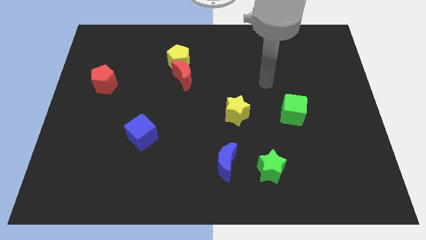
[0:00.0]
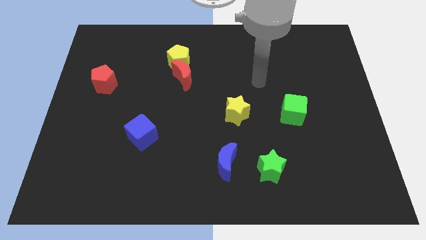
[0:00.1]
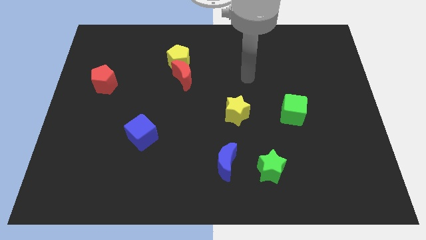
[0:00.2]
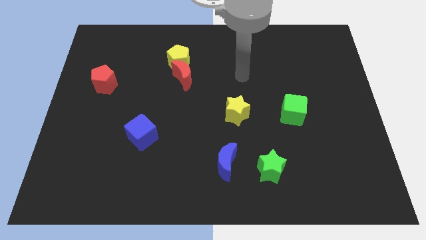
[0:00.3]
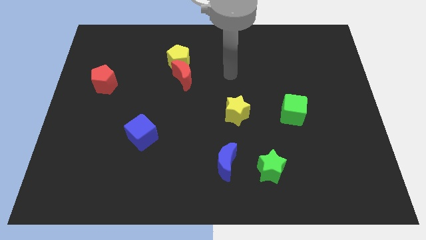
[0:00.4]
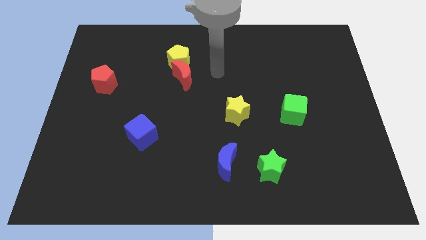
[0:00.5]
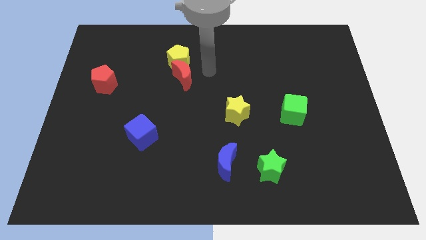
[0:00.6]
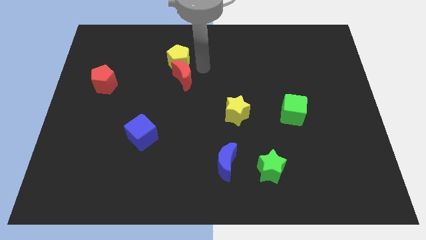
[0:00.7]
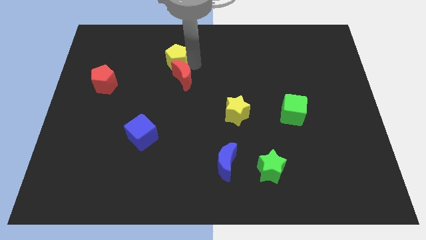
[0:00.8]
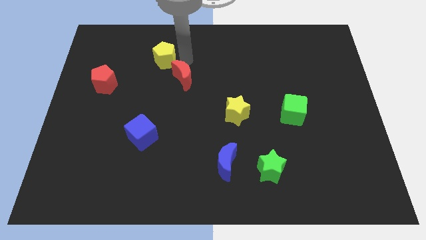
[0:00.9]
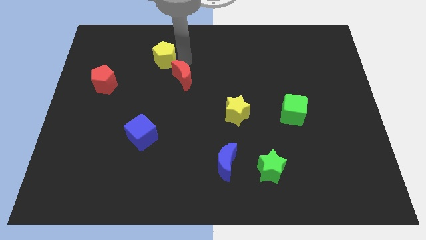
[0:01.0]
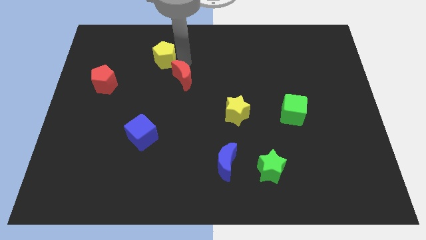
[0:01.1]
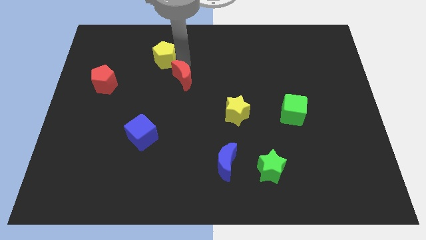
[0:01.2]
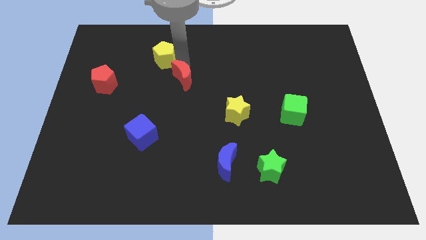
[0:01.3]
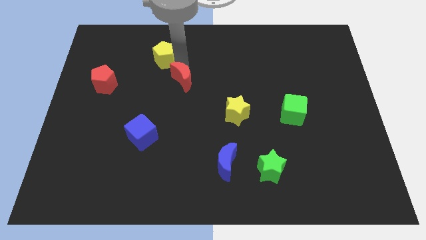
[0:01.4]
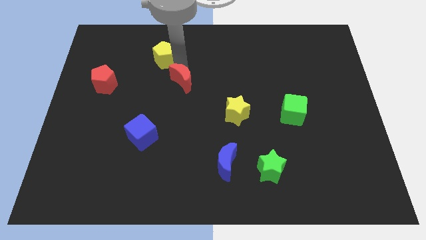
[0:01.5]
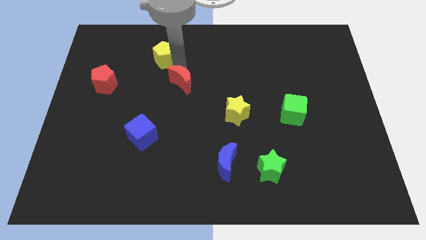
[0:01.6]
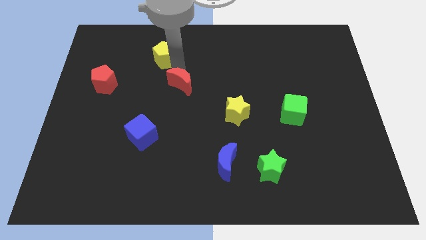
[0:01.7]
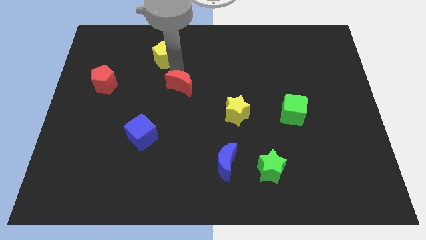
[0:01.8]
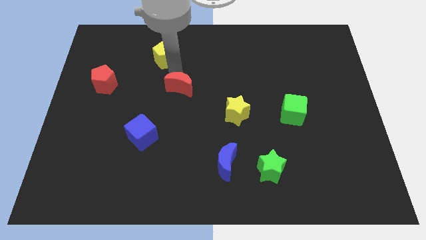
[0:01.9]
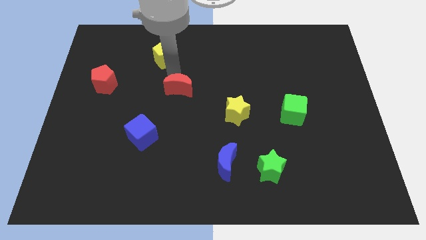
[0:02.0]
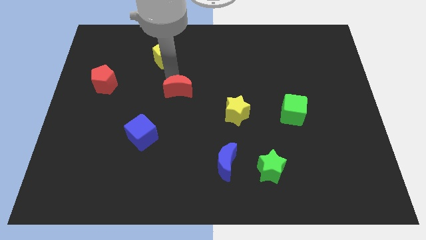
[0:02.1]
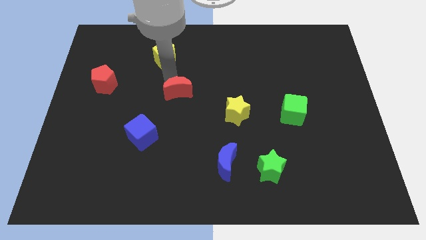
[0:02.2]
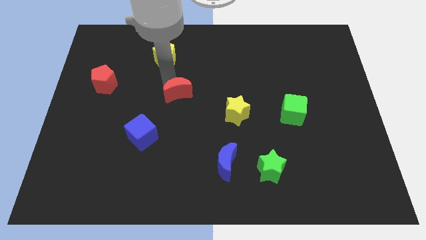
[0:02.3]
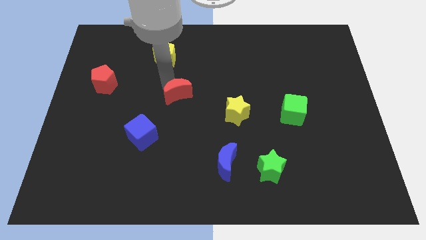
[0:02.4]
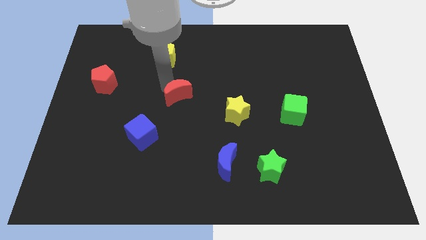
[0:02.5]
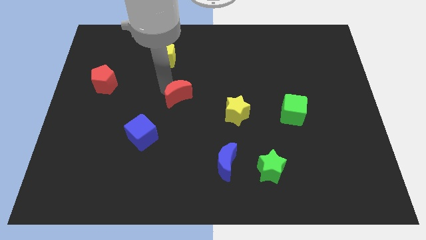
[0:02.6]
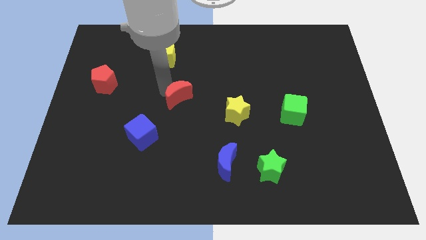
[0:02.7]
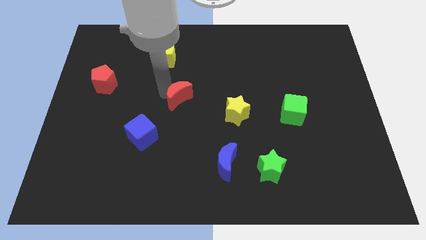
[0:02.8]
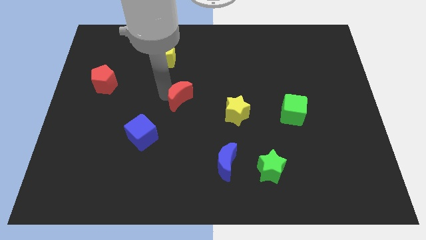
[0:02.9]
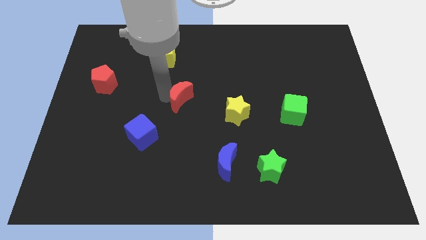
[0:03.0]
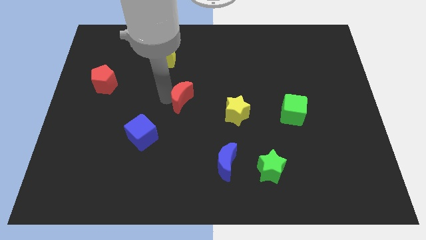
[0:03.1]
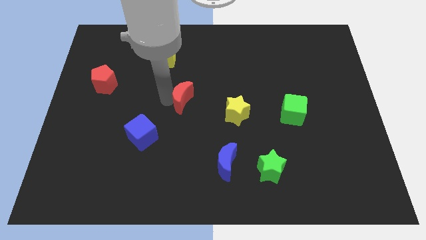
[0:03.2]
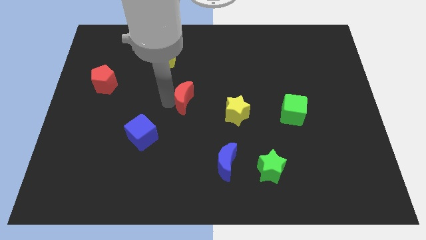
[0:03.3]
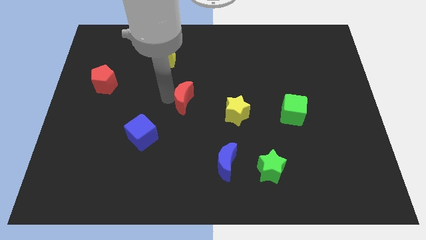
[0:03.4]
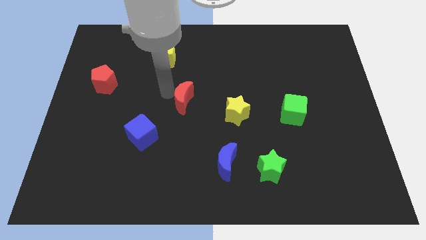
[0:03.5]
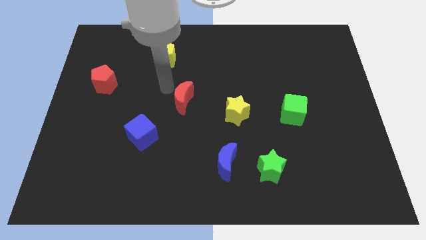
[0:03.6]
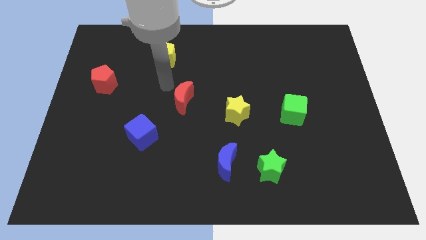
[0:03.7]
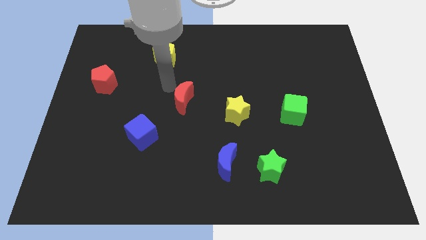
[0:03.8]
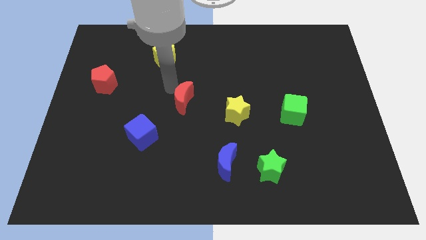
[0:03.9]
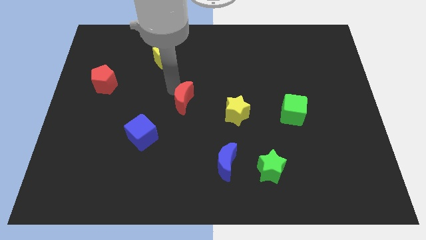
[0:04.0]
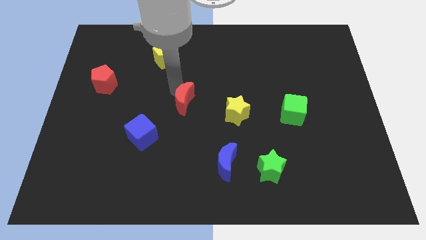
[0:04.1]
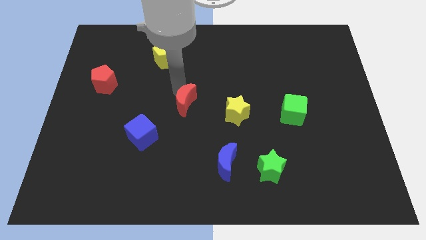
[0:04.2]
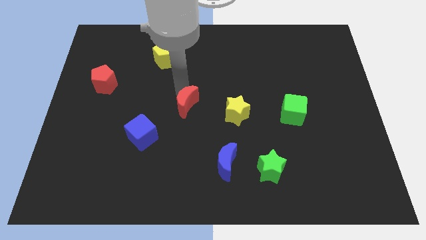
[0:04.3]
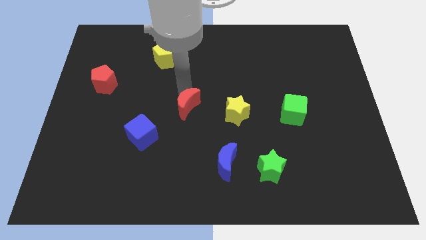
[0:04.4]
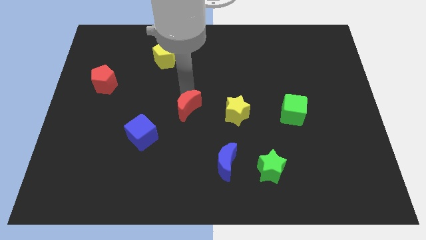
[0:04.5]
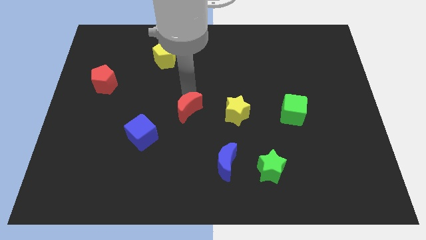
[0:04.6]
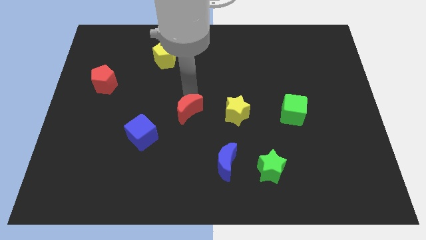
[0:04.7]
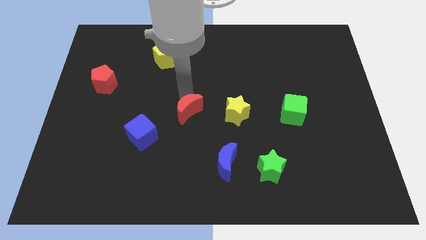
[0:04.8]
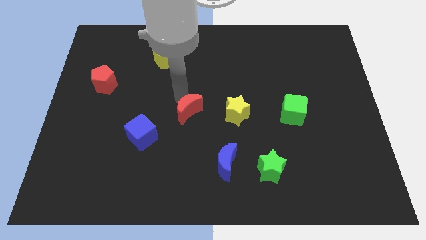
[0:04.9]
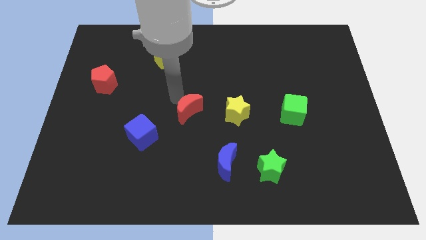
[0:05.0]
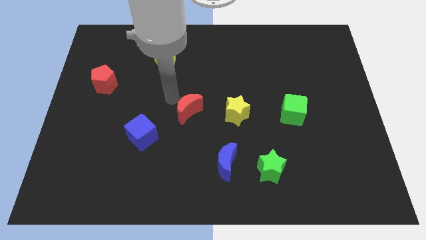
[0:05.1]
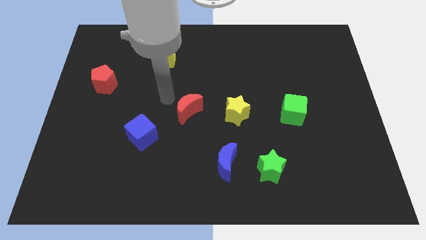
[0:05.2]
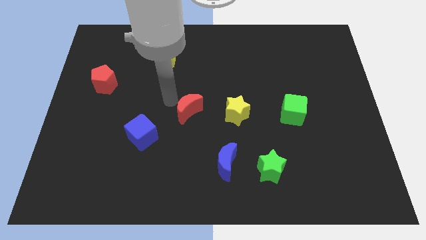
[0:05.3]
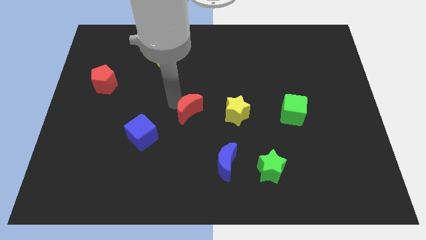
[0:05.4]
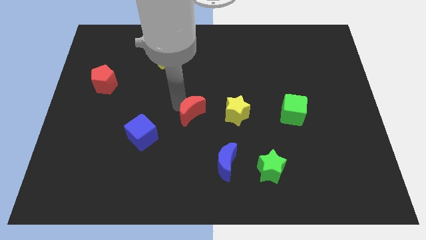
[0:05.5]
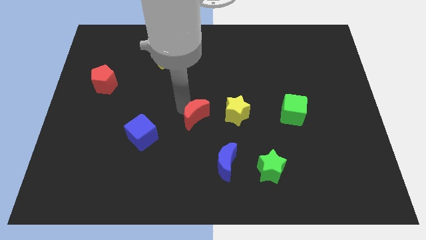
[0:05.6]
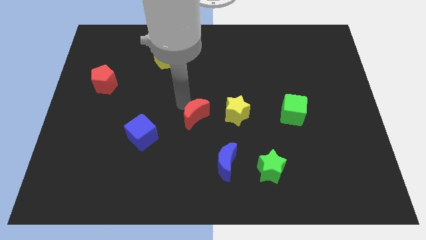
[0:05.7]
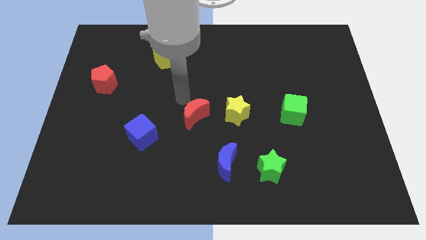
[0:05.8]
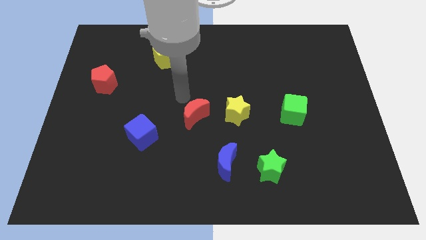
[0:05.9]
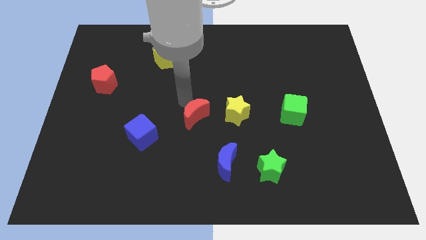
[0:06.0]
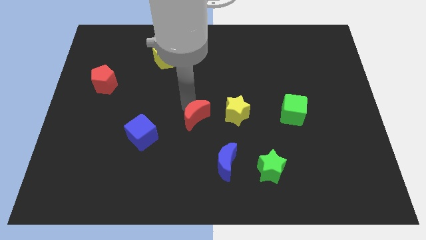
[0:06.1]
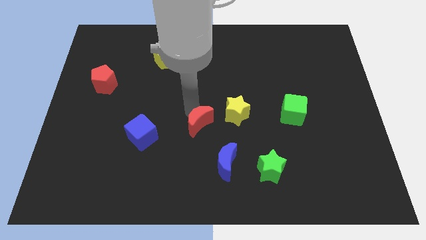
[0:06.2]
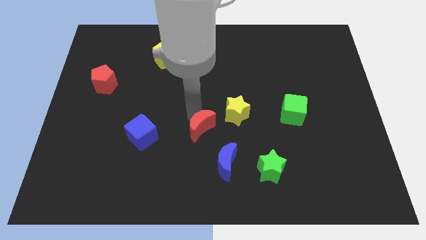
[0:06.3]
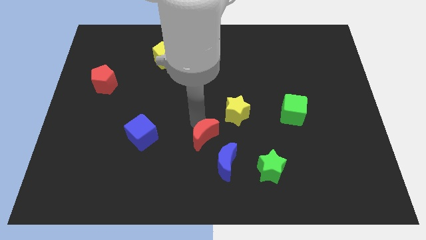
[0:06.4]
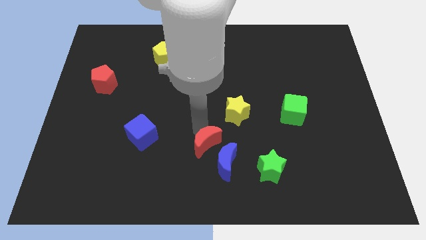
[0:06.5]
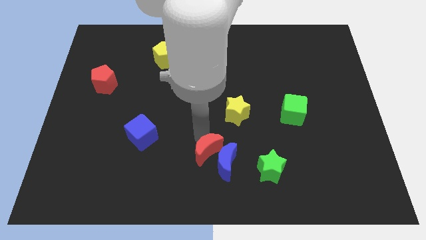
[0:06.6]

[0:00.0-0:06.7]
slide the red moon towards the blue moon
